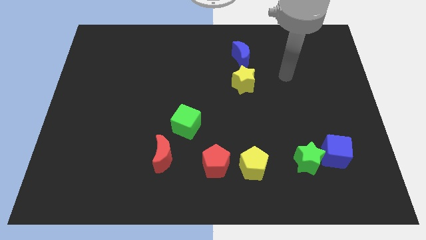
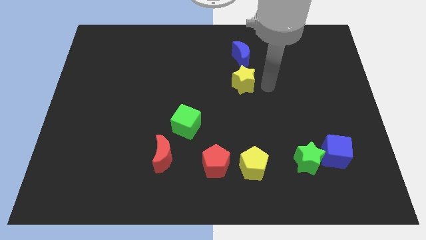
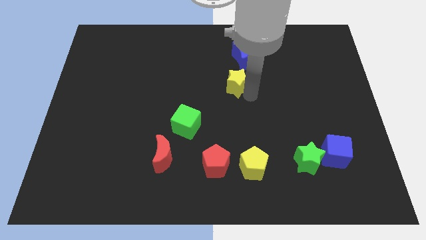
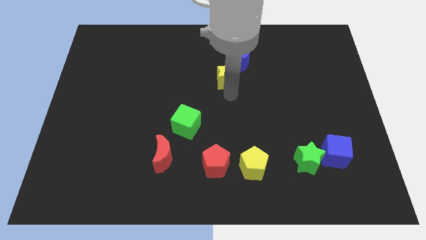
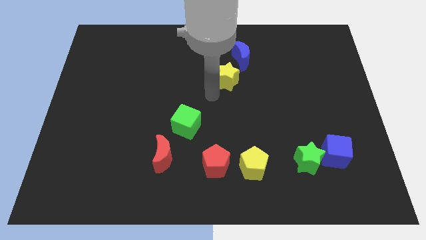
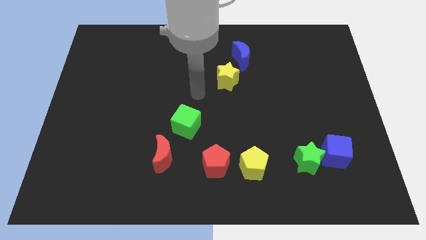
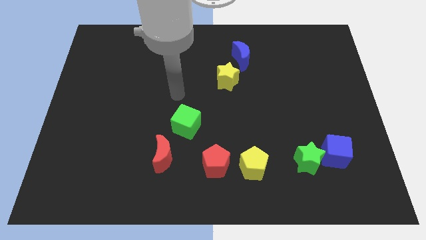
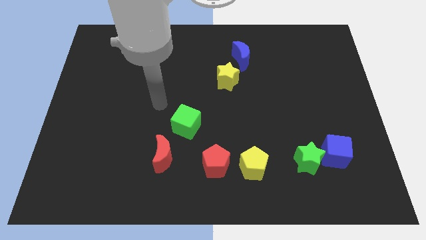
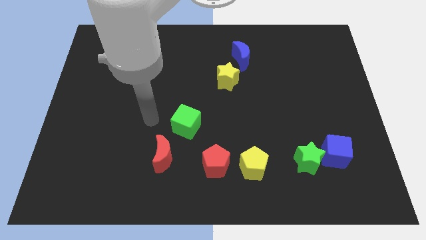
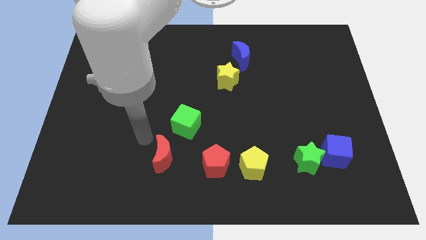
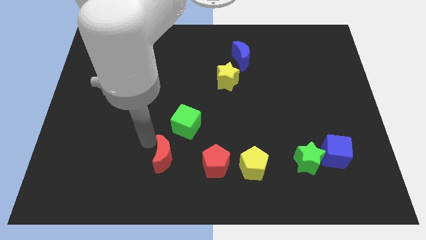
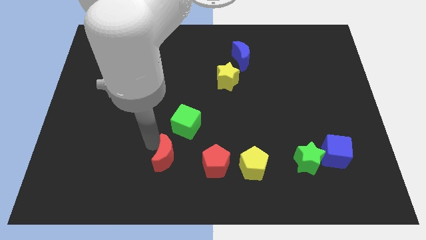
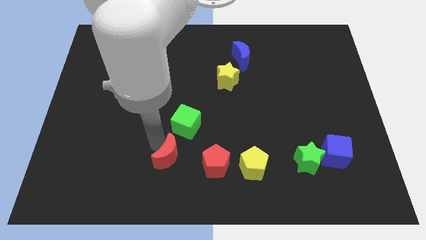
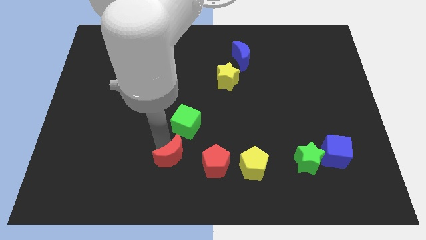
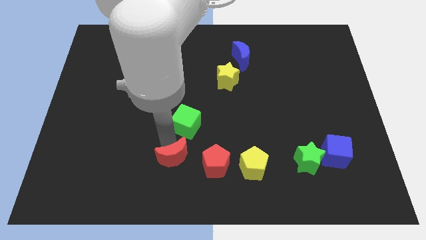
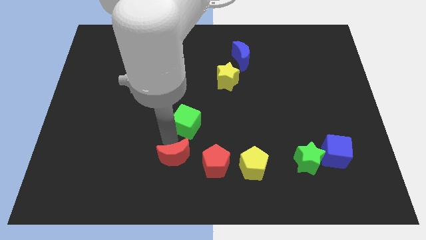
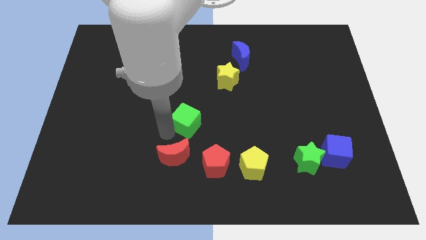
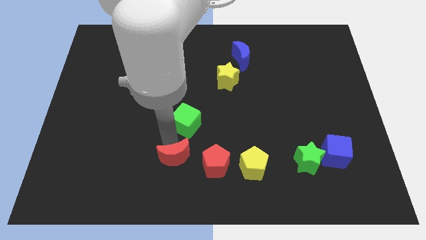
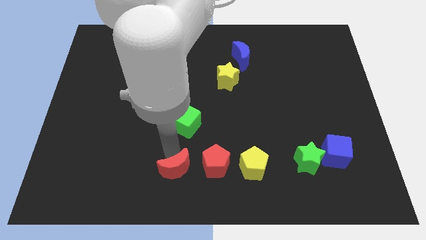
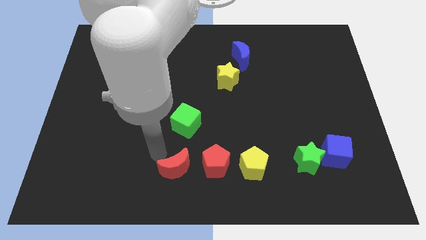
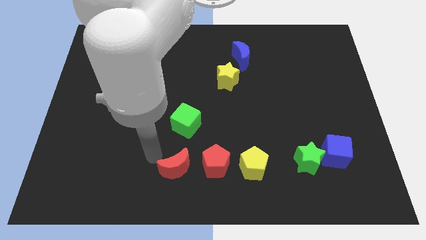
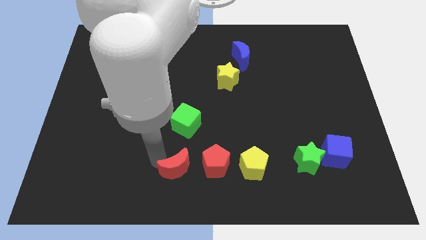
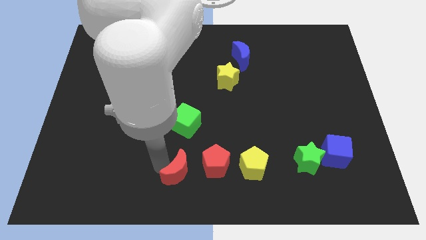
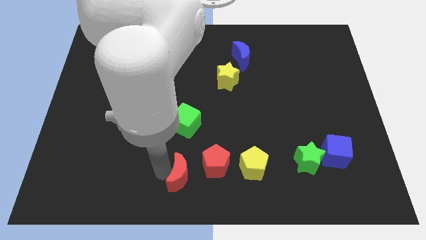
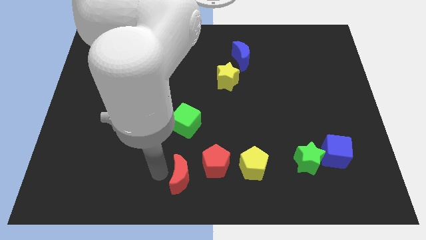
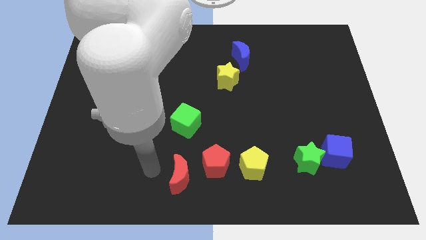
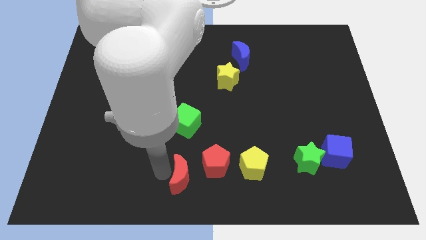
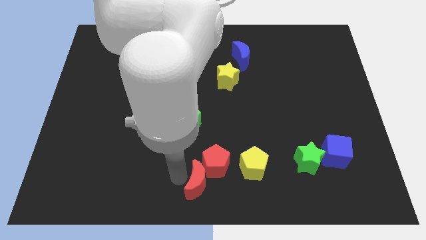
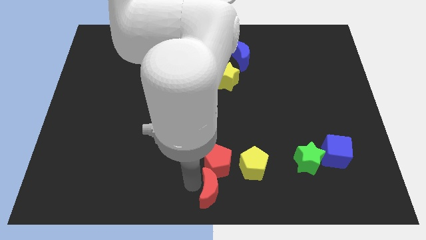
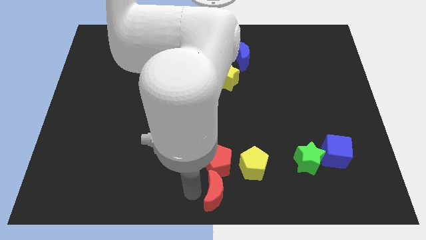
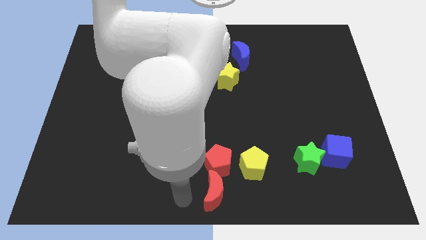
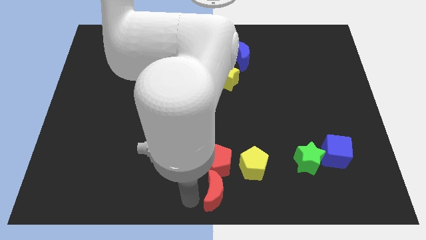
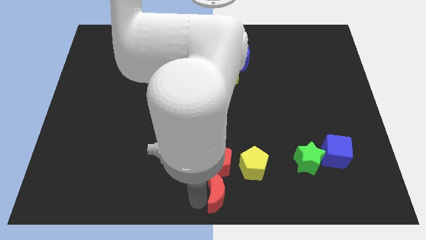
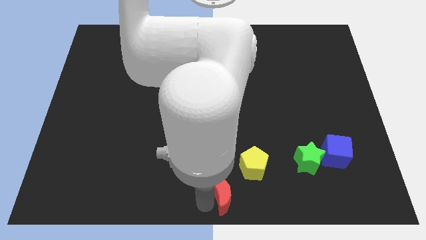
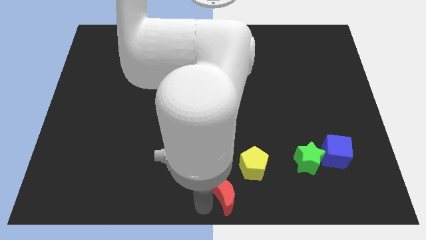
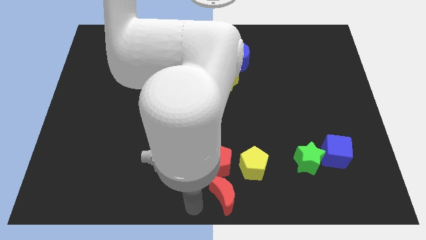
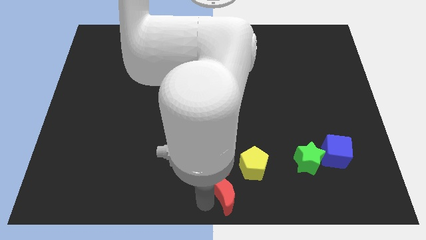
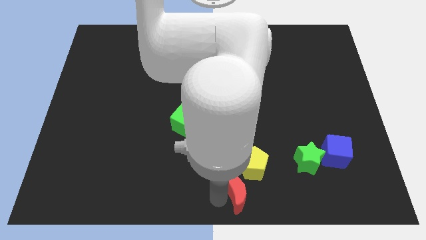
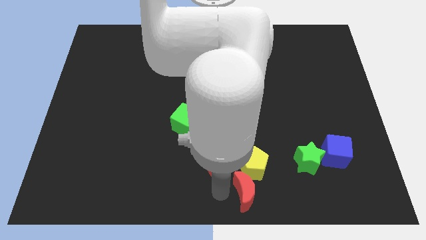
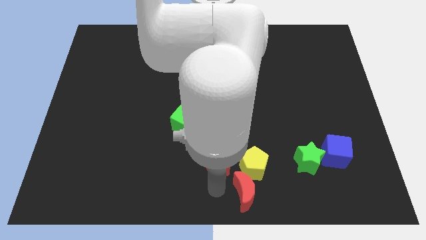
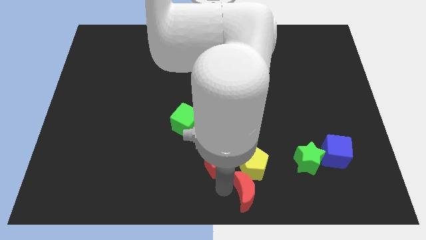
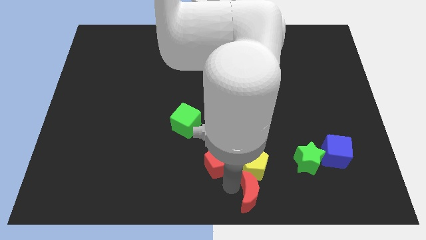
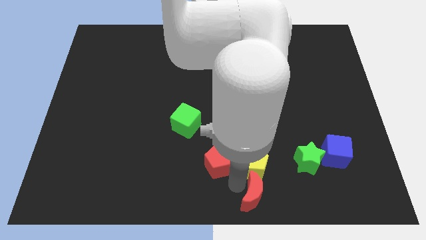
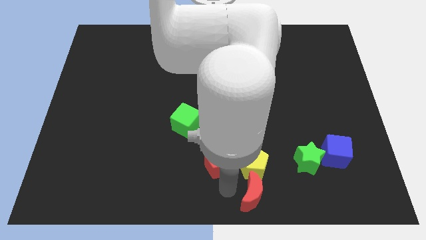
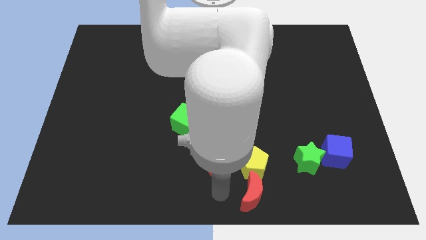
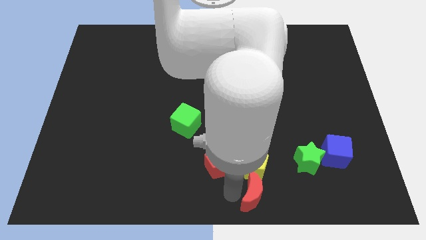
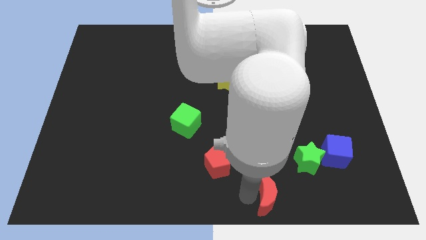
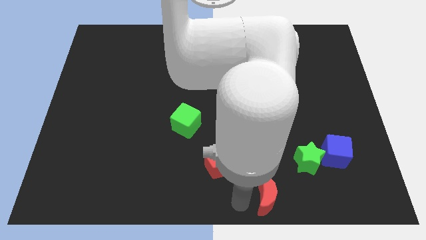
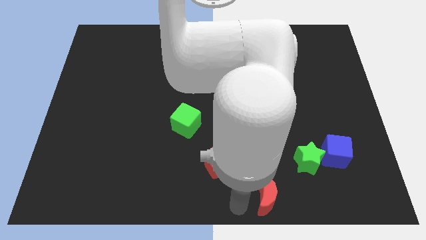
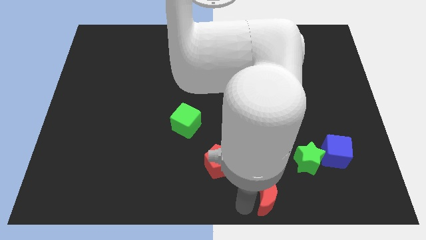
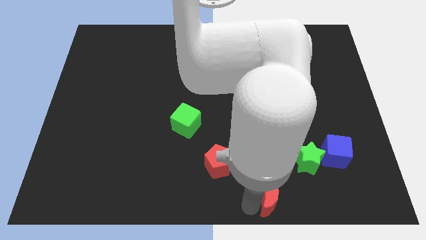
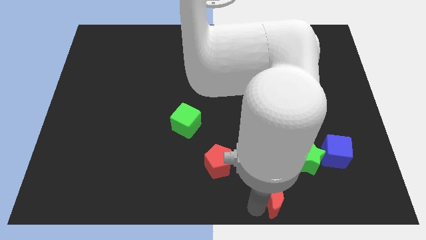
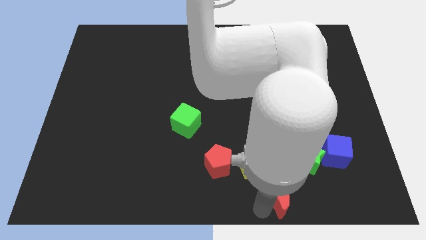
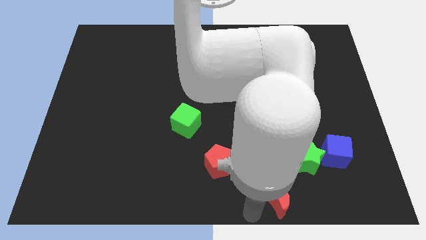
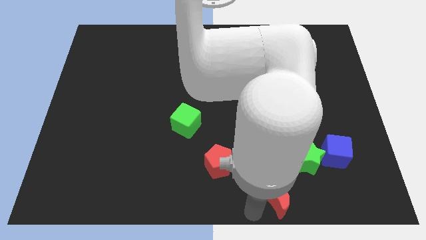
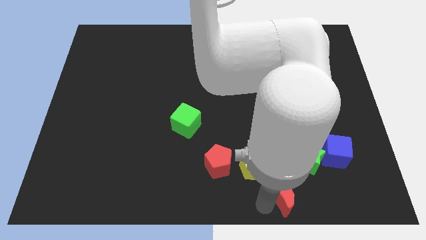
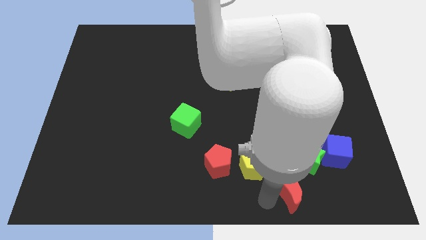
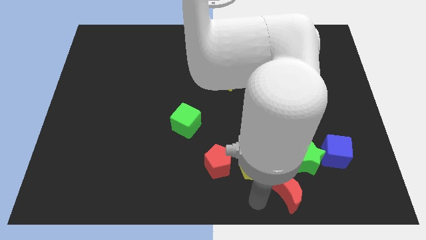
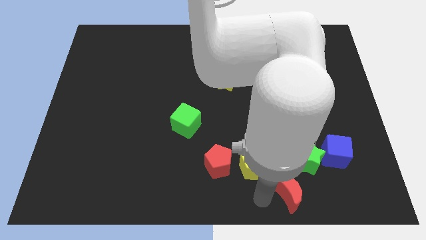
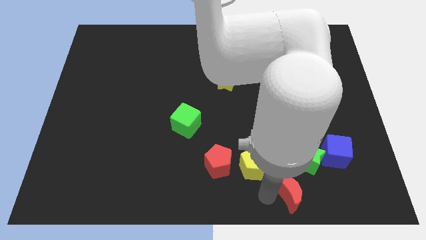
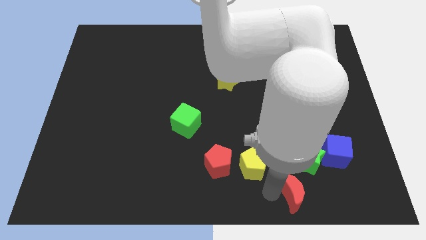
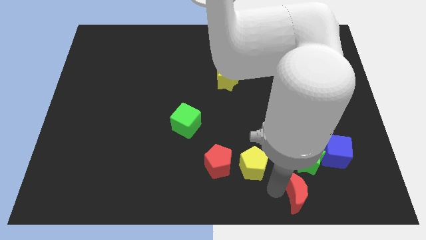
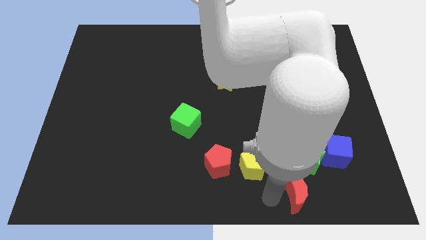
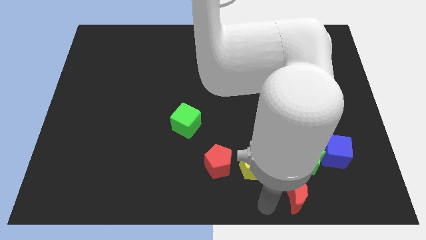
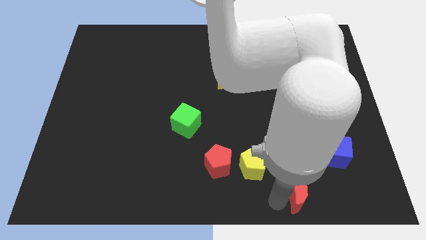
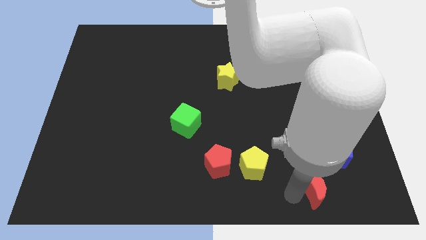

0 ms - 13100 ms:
move the red moon to the bottom right of the green star

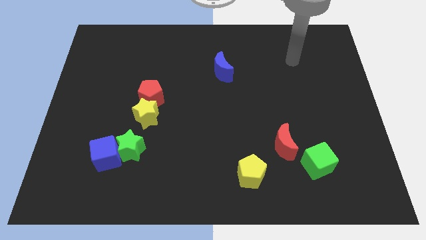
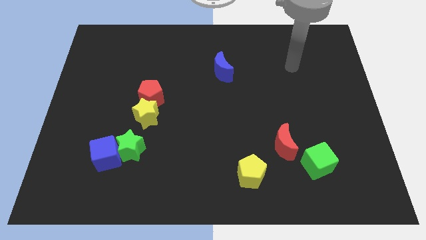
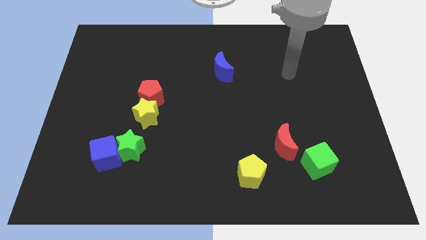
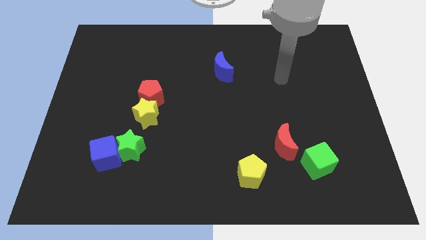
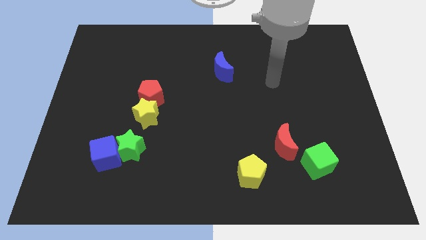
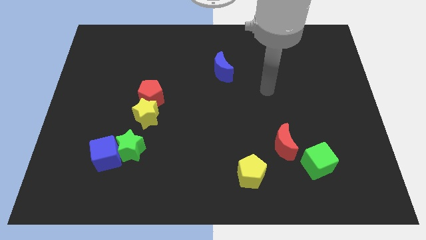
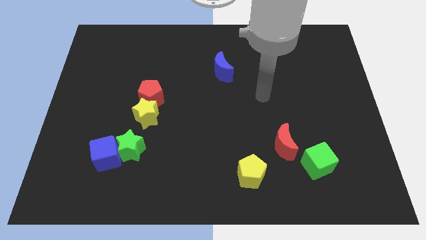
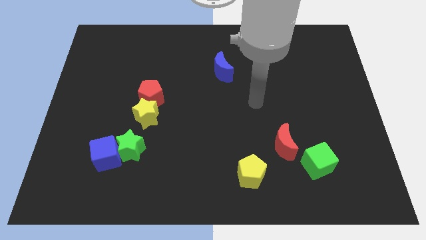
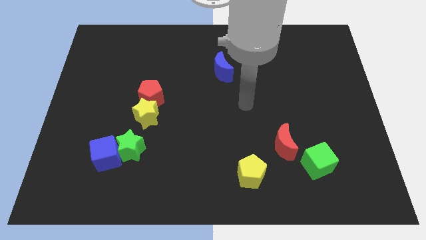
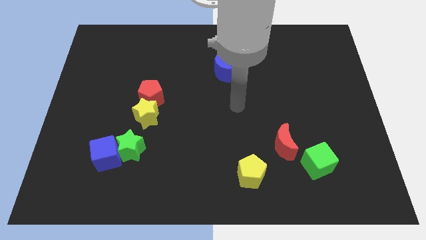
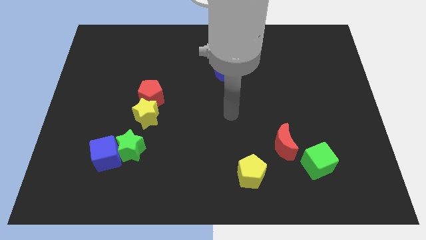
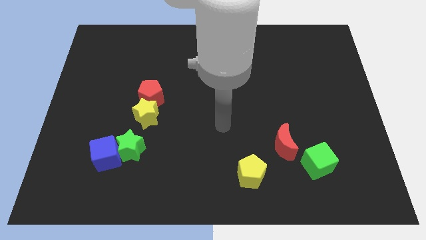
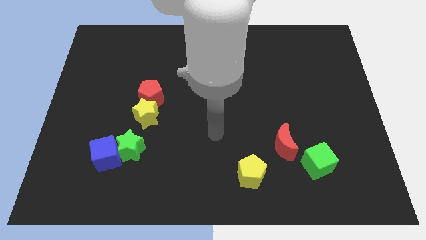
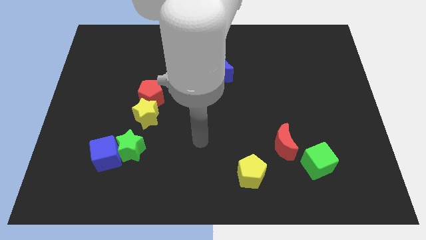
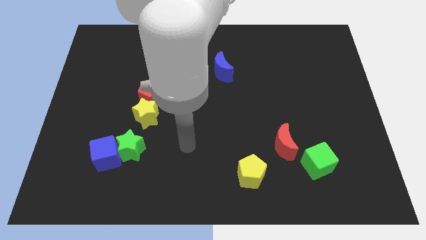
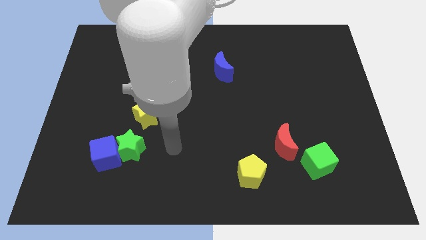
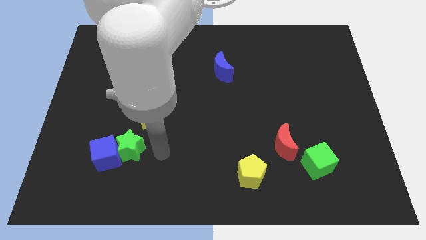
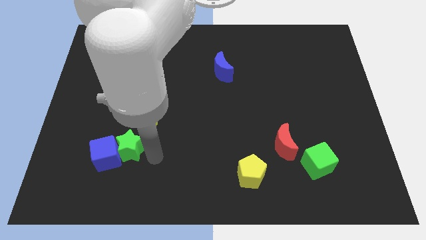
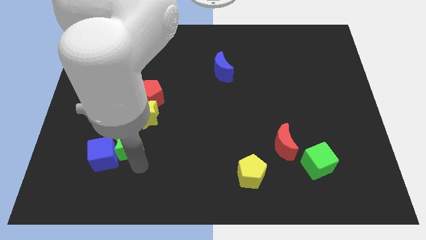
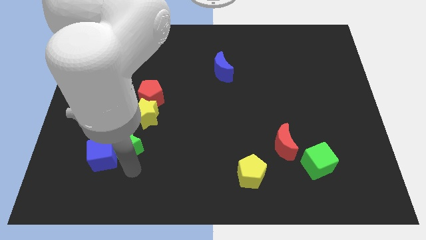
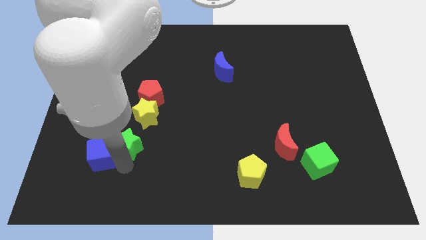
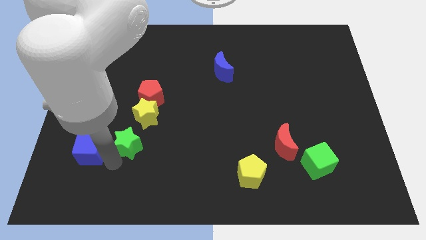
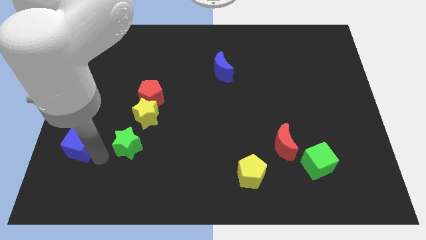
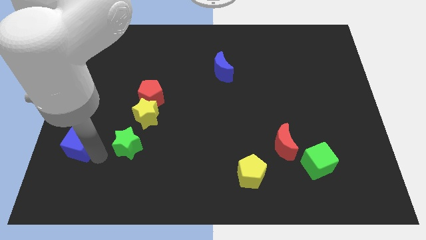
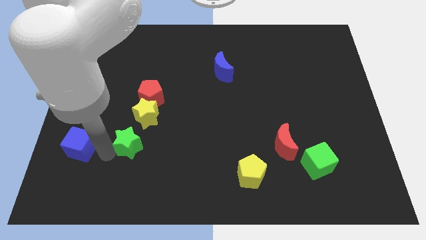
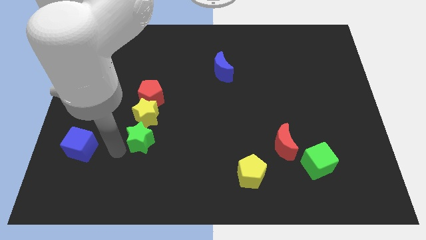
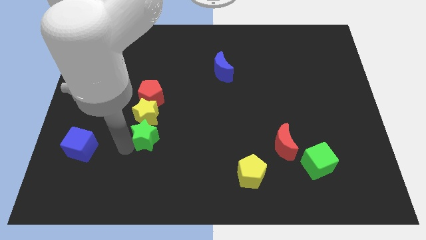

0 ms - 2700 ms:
slide the green star diagonally down and to the right of the yellow star
